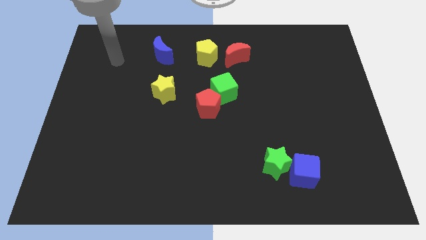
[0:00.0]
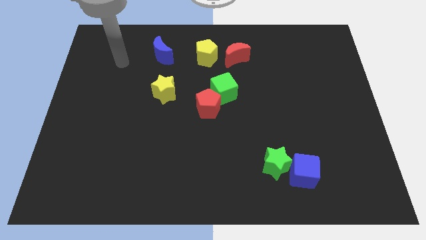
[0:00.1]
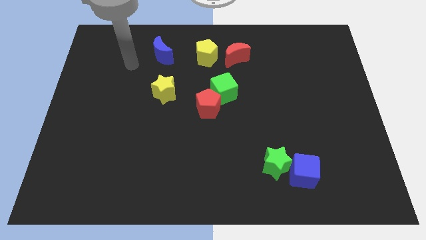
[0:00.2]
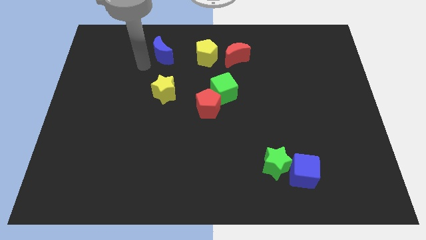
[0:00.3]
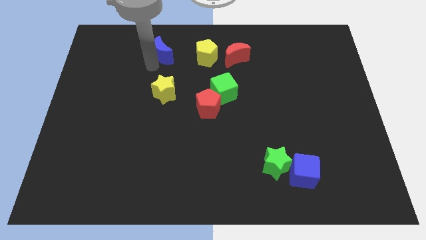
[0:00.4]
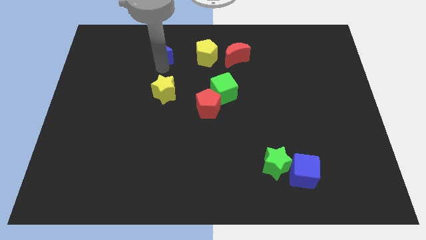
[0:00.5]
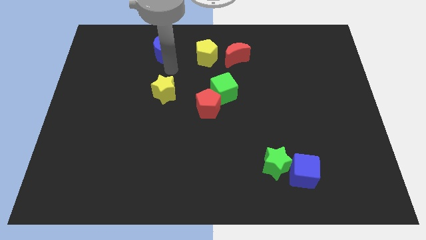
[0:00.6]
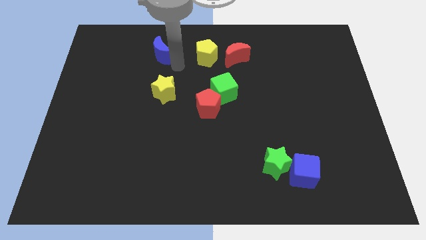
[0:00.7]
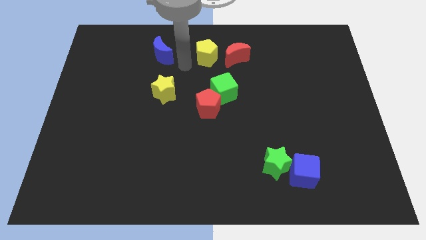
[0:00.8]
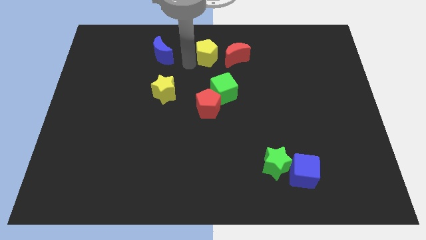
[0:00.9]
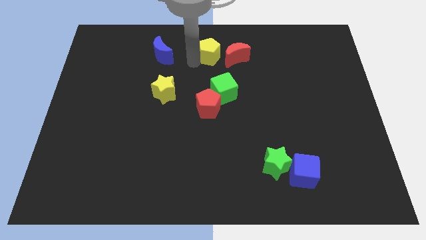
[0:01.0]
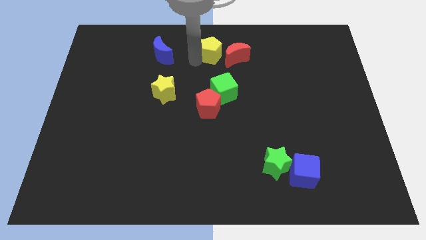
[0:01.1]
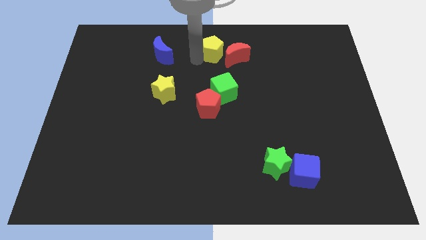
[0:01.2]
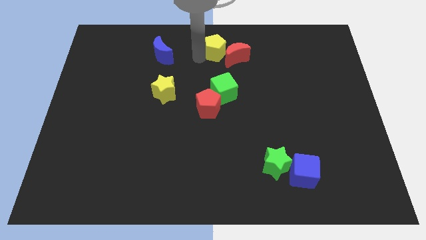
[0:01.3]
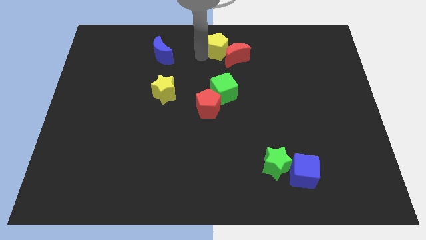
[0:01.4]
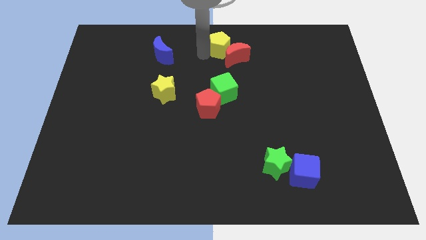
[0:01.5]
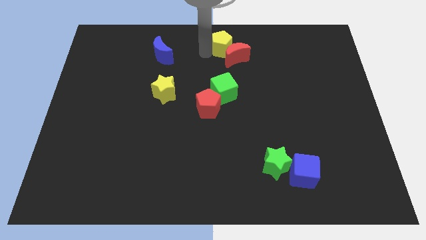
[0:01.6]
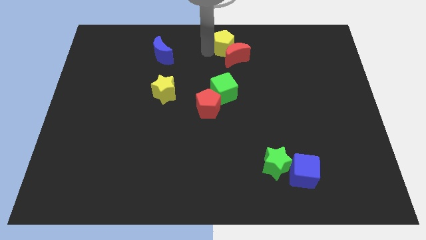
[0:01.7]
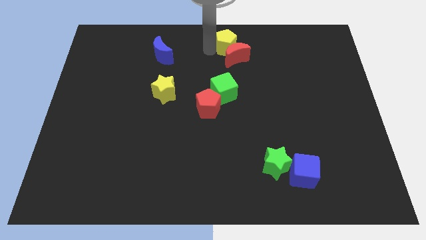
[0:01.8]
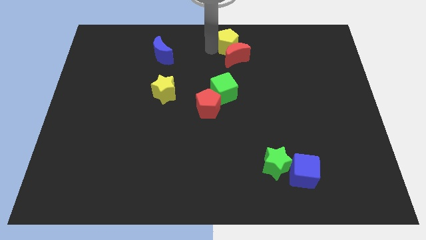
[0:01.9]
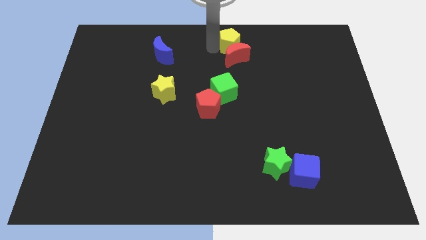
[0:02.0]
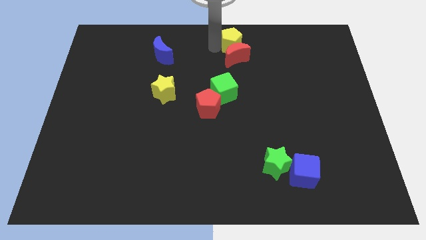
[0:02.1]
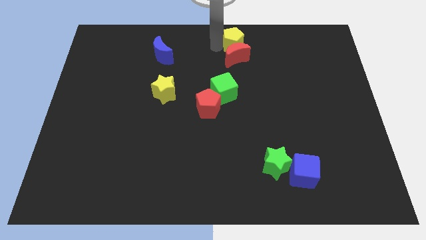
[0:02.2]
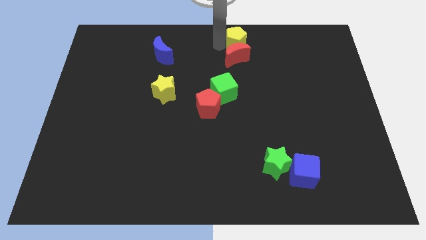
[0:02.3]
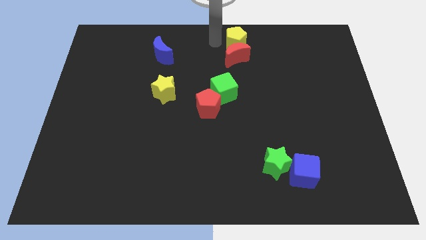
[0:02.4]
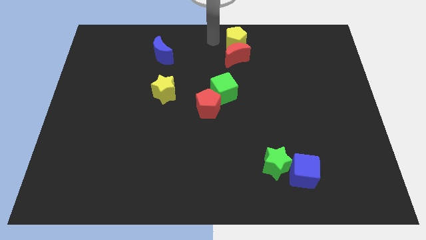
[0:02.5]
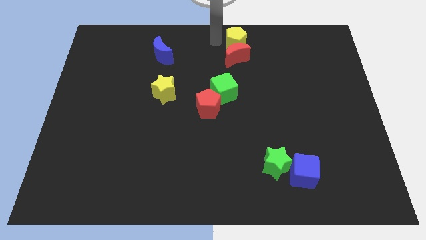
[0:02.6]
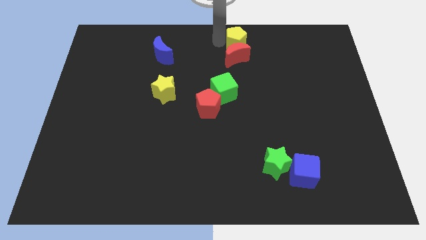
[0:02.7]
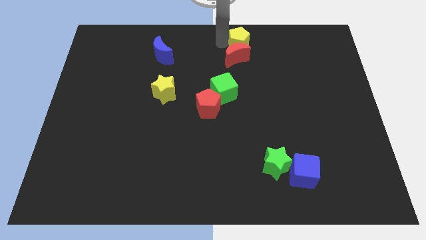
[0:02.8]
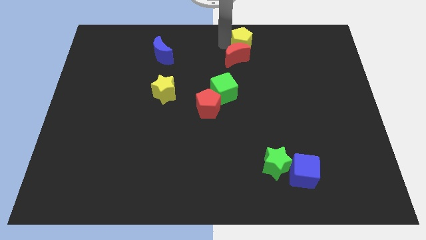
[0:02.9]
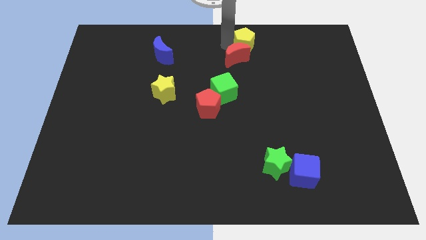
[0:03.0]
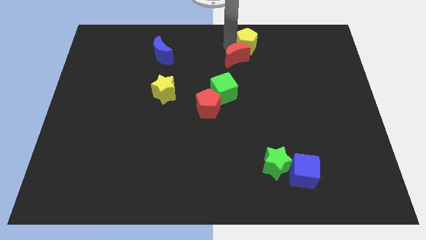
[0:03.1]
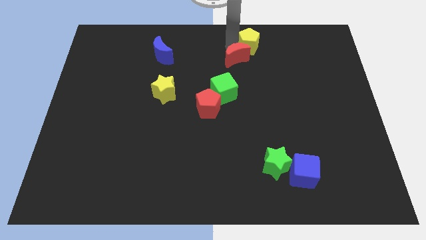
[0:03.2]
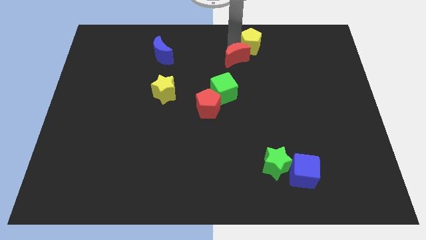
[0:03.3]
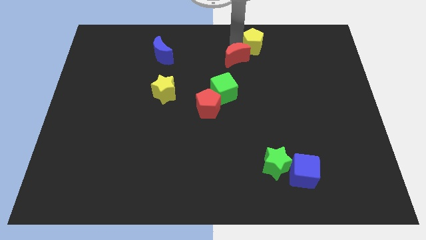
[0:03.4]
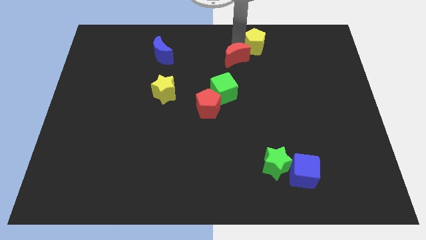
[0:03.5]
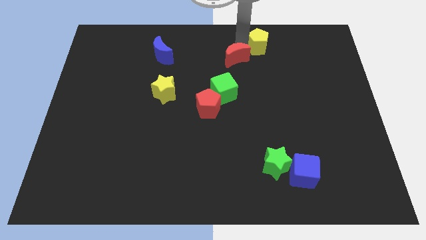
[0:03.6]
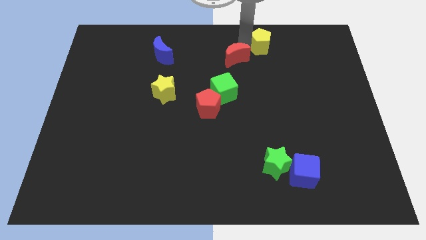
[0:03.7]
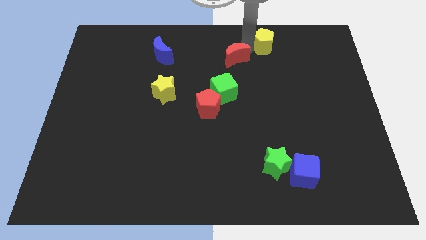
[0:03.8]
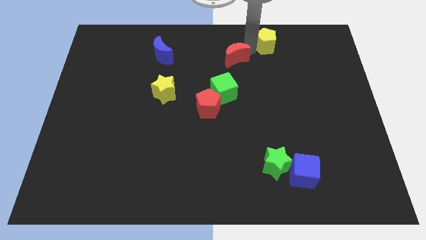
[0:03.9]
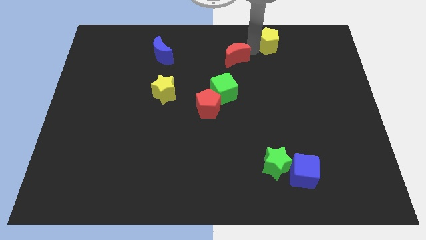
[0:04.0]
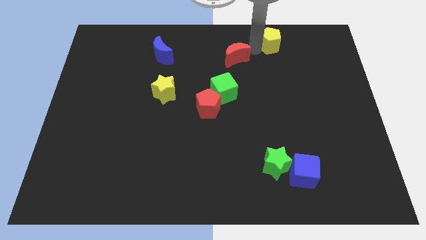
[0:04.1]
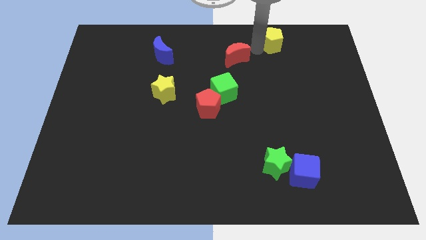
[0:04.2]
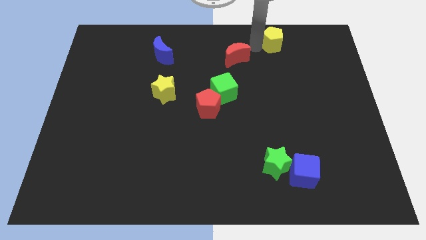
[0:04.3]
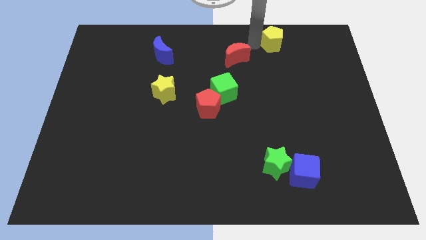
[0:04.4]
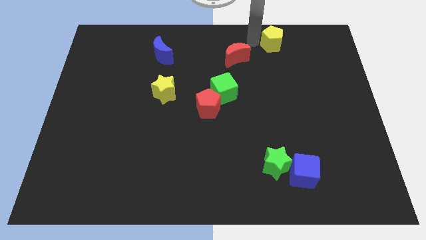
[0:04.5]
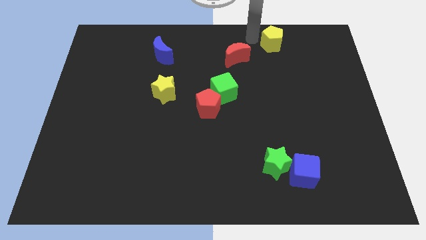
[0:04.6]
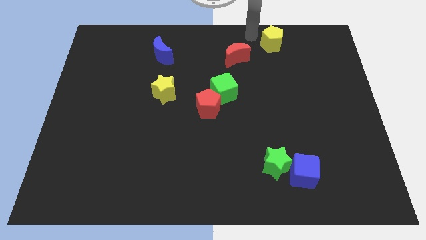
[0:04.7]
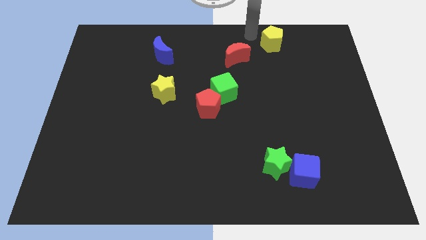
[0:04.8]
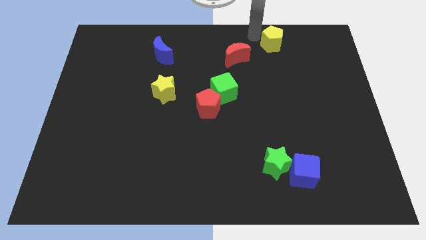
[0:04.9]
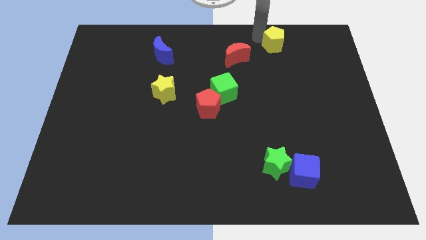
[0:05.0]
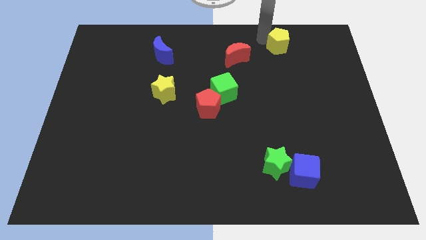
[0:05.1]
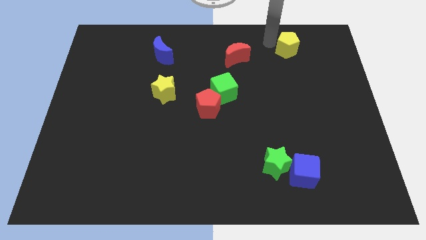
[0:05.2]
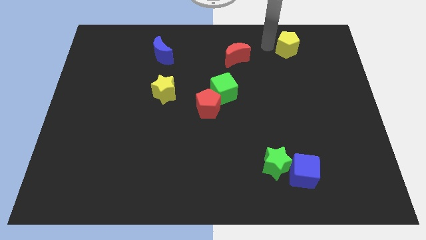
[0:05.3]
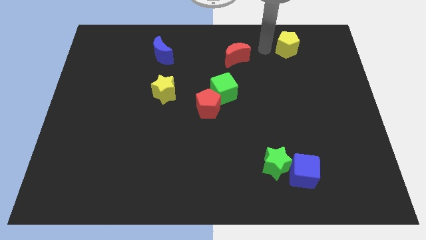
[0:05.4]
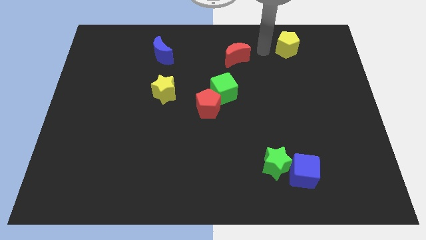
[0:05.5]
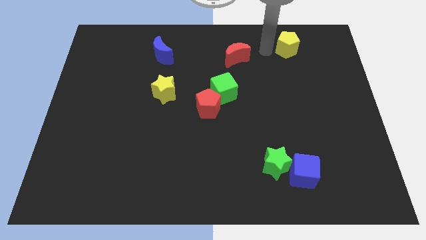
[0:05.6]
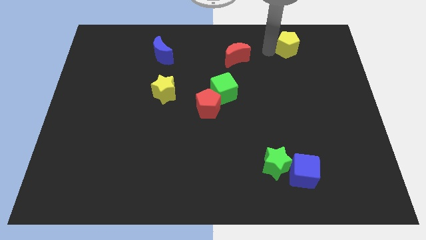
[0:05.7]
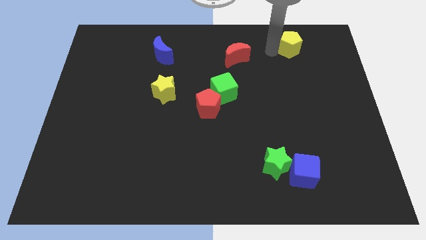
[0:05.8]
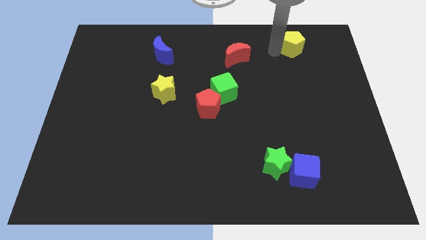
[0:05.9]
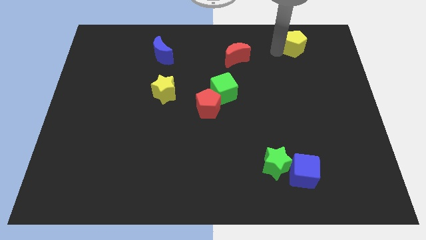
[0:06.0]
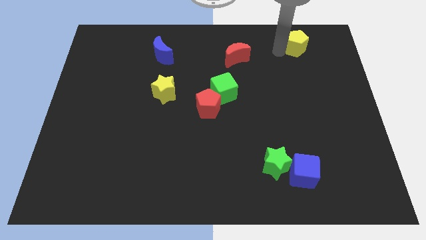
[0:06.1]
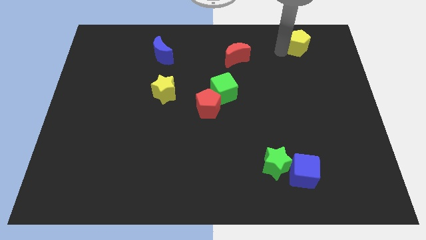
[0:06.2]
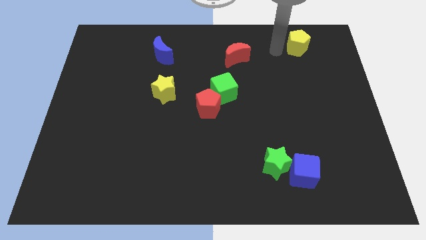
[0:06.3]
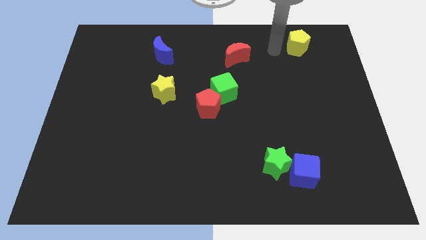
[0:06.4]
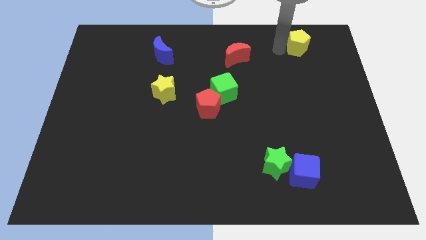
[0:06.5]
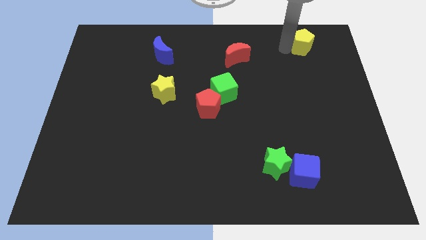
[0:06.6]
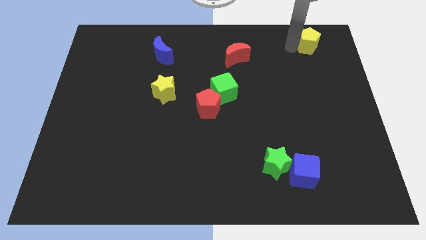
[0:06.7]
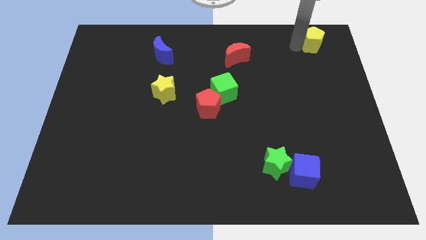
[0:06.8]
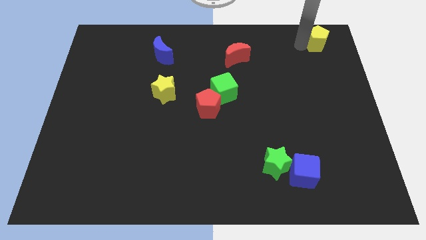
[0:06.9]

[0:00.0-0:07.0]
slide the yellow pentagon to the top right corner

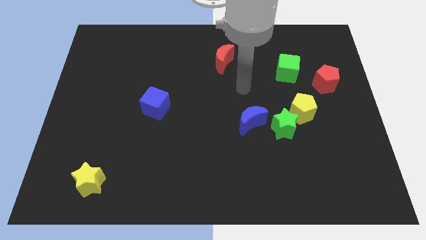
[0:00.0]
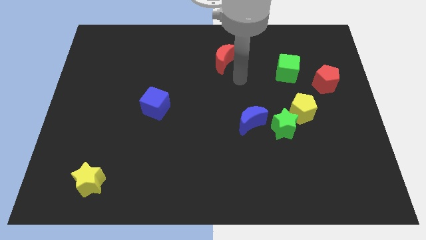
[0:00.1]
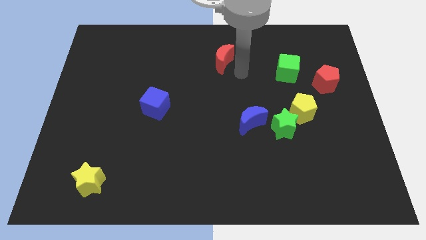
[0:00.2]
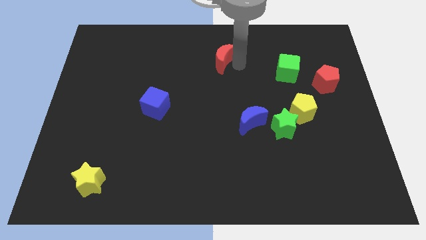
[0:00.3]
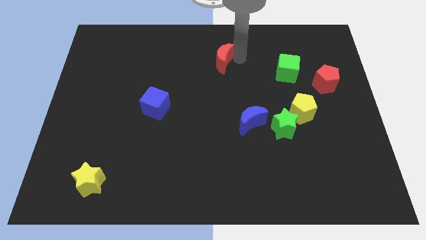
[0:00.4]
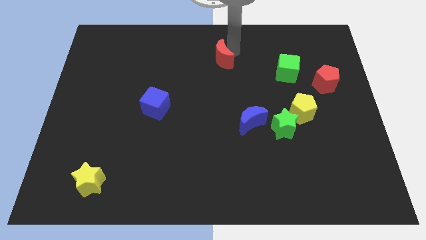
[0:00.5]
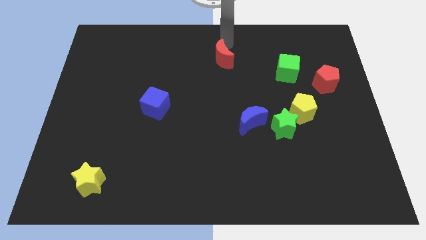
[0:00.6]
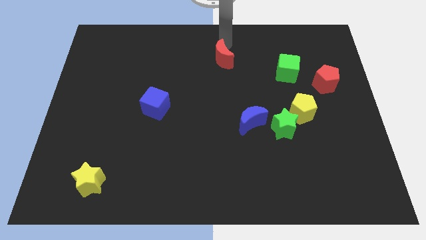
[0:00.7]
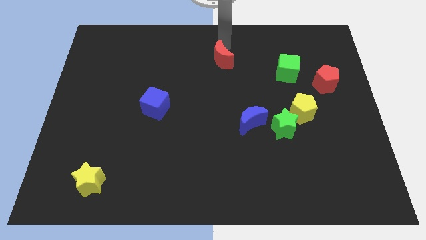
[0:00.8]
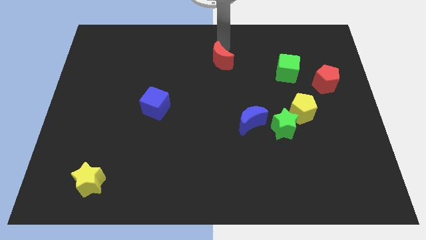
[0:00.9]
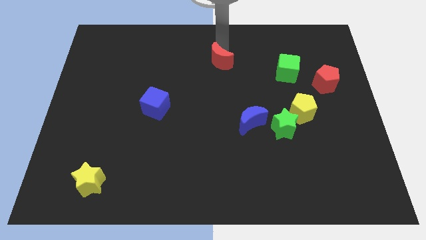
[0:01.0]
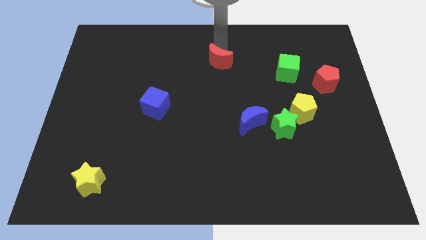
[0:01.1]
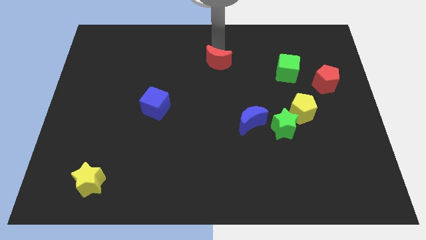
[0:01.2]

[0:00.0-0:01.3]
push the red moon to the middle of the board
